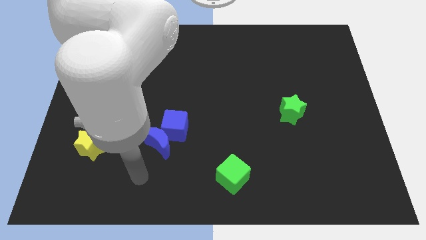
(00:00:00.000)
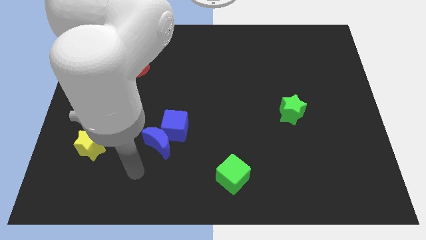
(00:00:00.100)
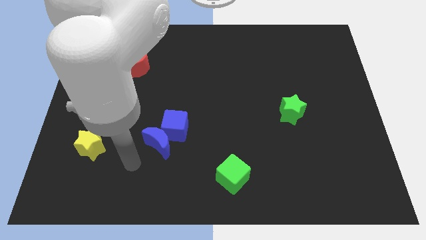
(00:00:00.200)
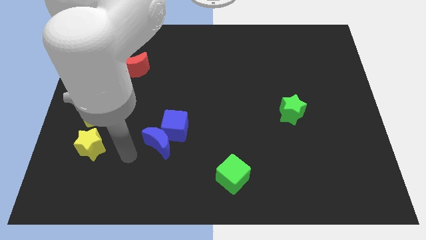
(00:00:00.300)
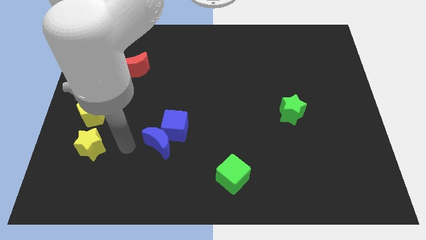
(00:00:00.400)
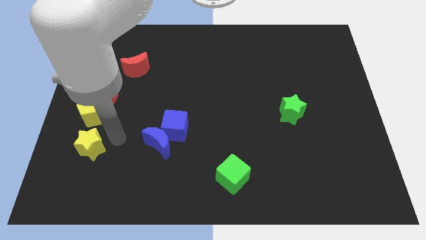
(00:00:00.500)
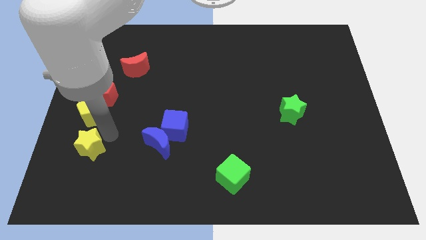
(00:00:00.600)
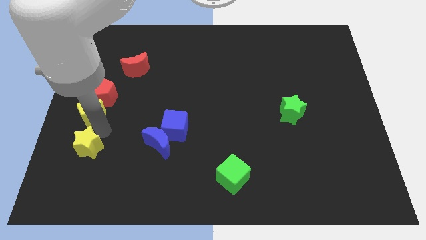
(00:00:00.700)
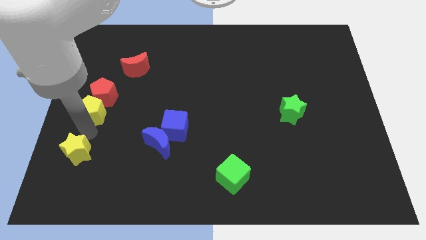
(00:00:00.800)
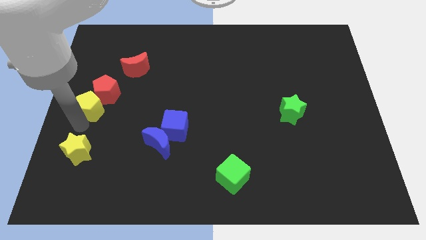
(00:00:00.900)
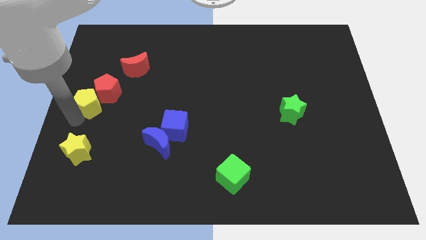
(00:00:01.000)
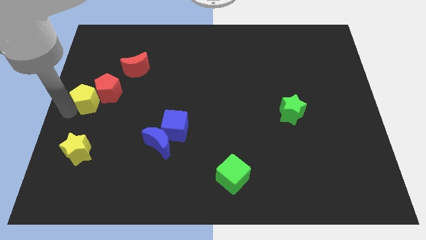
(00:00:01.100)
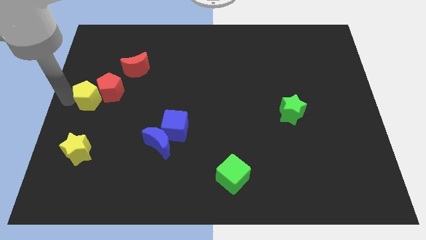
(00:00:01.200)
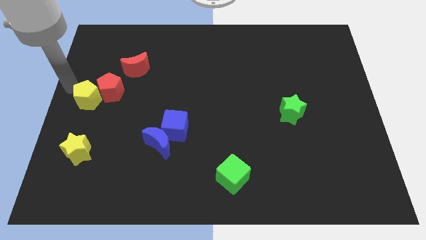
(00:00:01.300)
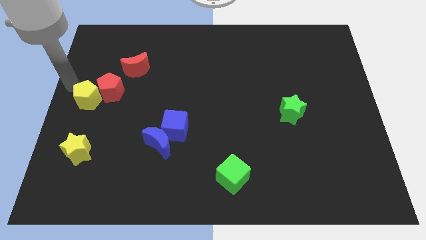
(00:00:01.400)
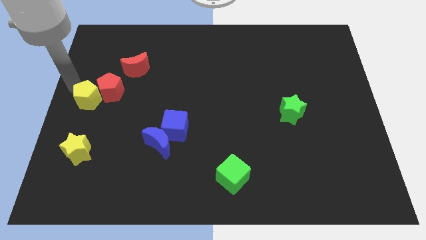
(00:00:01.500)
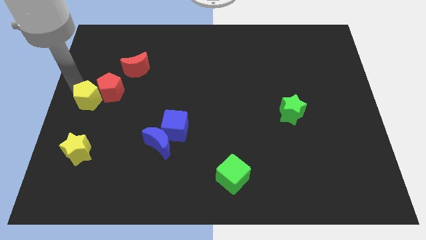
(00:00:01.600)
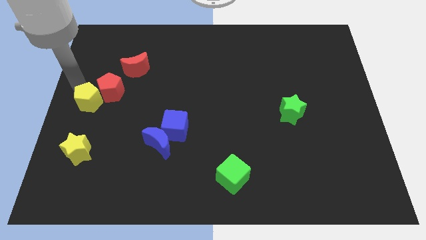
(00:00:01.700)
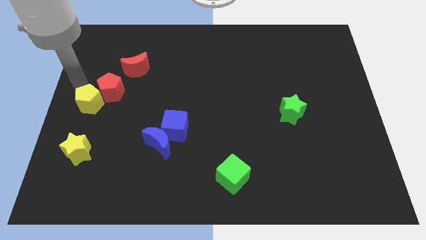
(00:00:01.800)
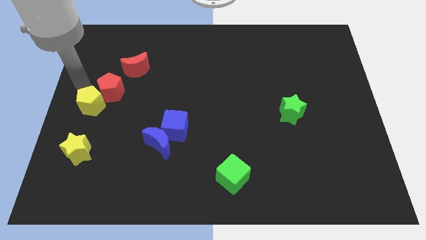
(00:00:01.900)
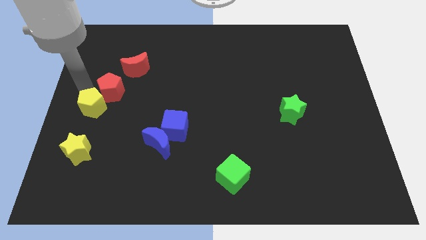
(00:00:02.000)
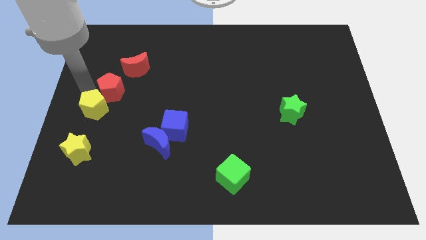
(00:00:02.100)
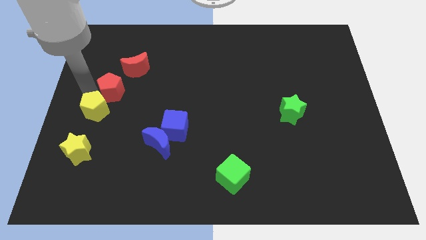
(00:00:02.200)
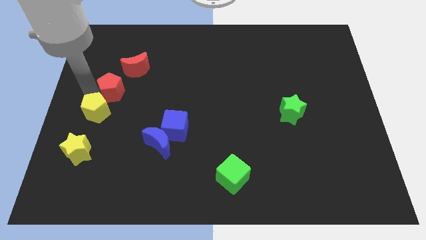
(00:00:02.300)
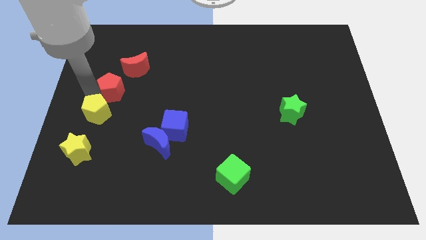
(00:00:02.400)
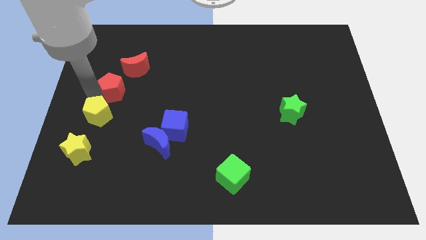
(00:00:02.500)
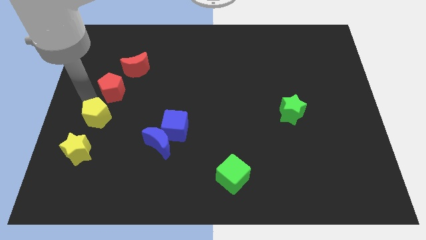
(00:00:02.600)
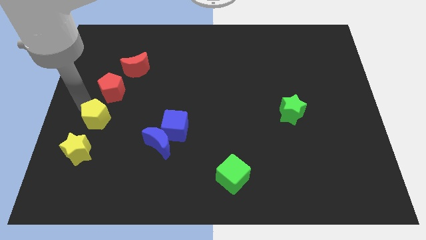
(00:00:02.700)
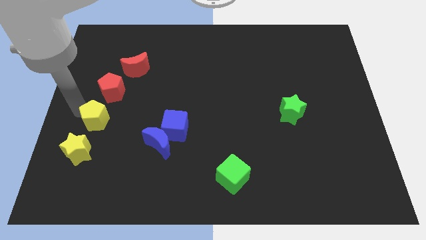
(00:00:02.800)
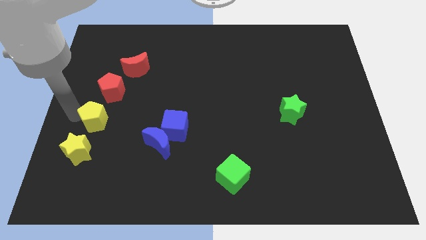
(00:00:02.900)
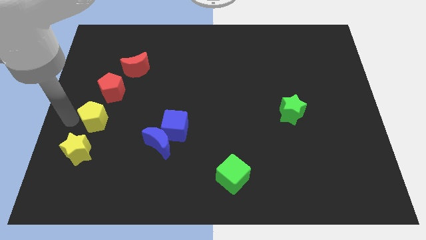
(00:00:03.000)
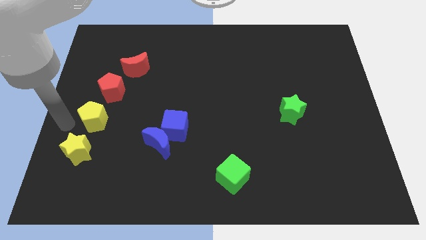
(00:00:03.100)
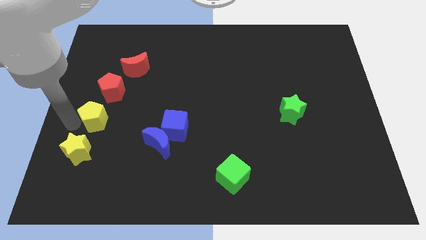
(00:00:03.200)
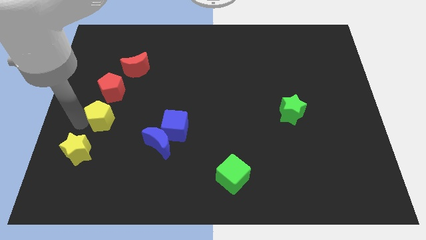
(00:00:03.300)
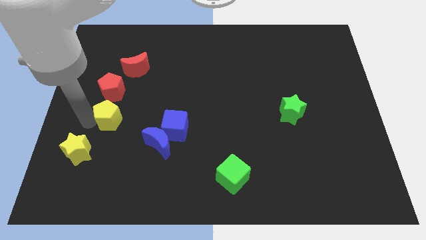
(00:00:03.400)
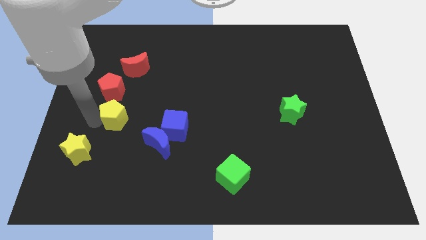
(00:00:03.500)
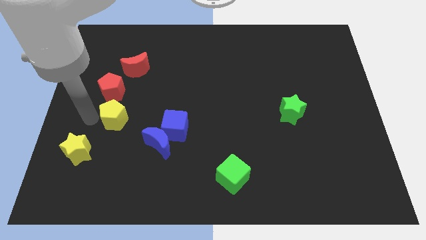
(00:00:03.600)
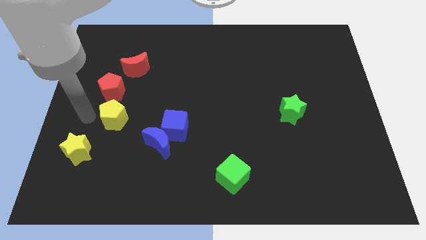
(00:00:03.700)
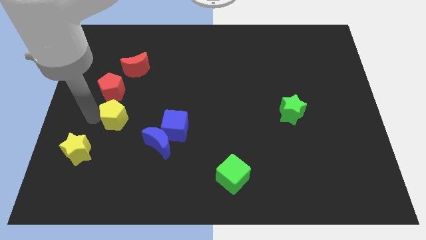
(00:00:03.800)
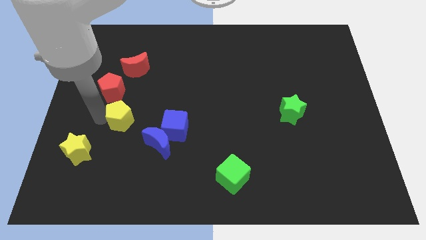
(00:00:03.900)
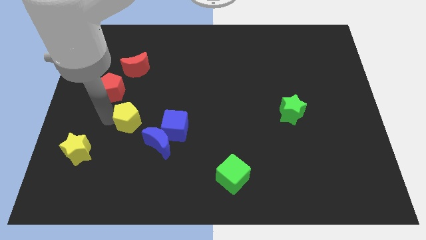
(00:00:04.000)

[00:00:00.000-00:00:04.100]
move the yellow pentagon right somewhat

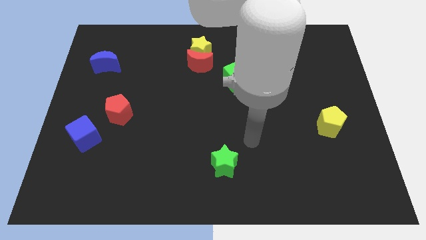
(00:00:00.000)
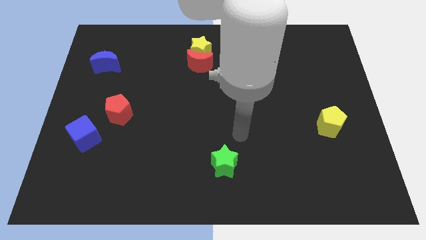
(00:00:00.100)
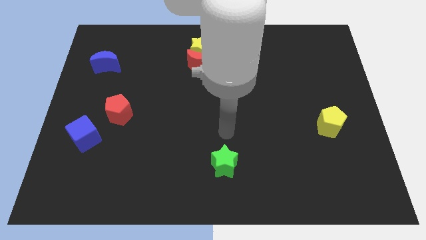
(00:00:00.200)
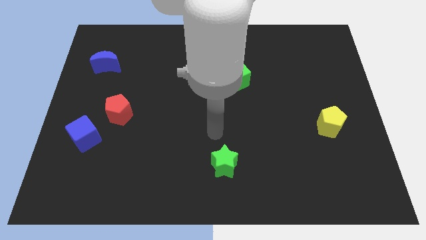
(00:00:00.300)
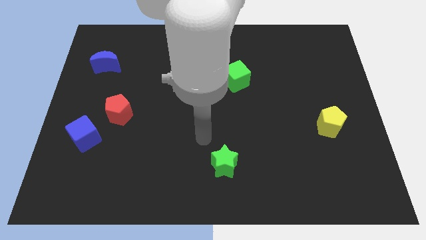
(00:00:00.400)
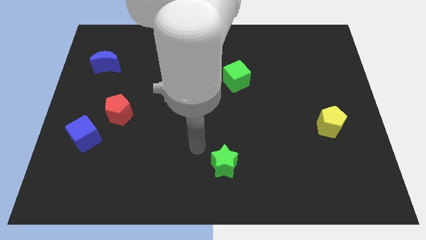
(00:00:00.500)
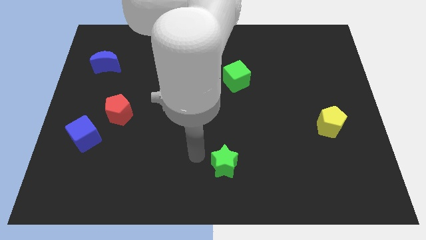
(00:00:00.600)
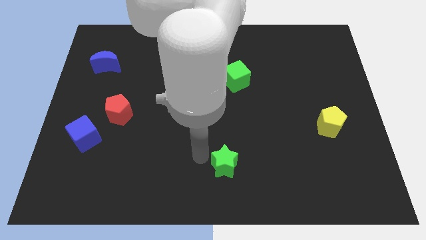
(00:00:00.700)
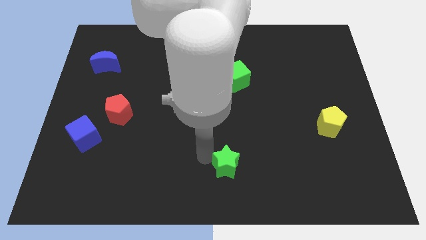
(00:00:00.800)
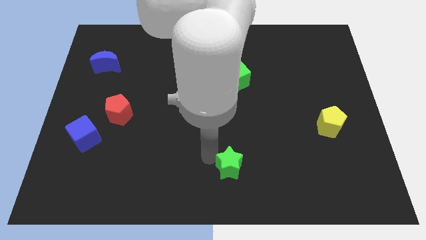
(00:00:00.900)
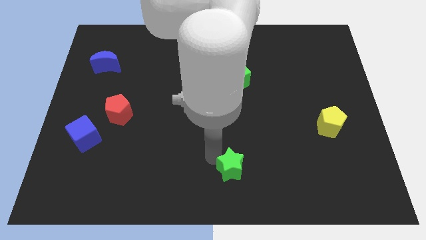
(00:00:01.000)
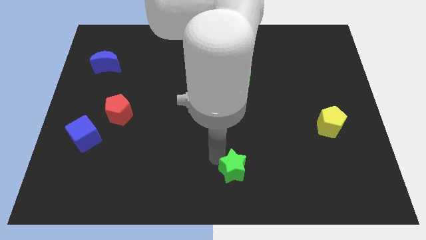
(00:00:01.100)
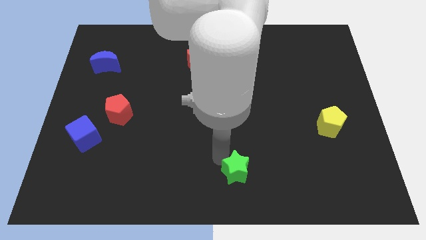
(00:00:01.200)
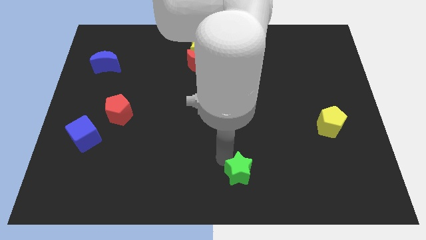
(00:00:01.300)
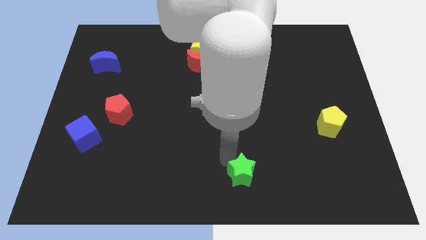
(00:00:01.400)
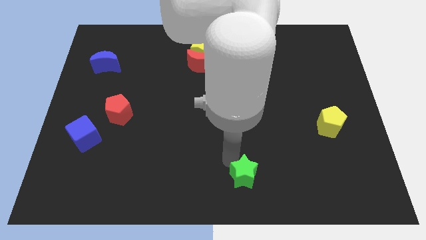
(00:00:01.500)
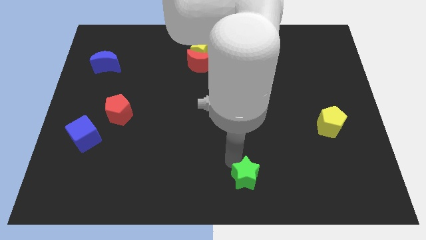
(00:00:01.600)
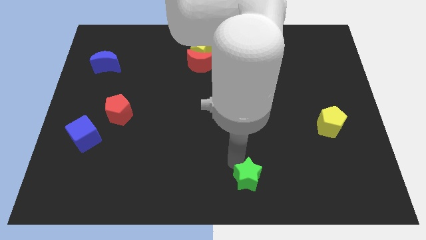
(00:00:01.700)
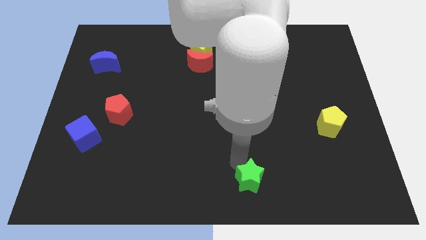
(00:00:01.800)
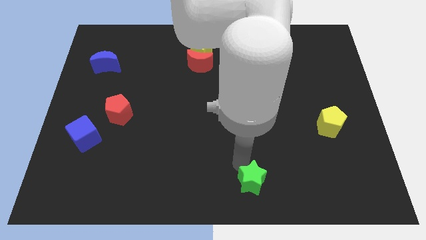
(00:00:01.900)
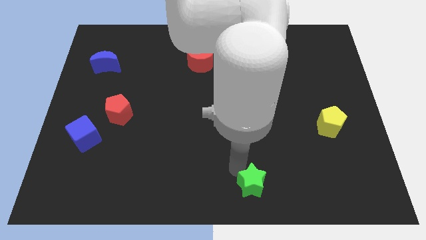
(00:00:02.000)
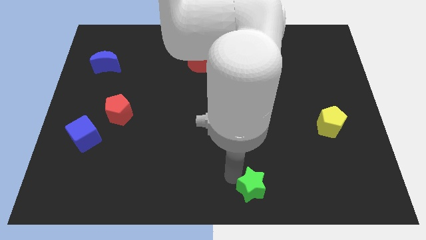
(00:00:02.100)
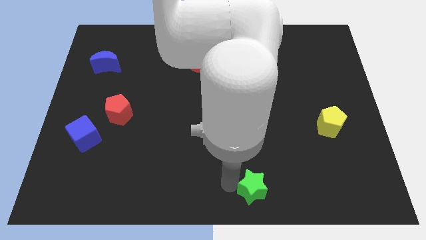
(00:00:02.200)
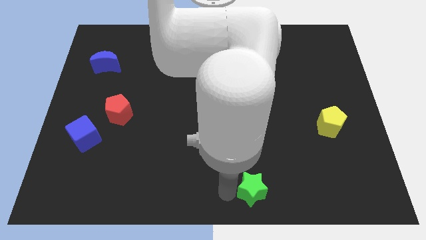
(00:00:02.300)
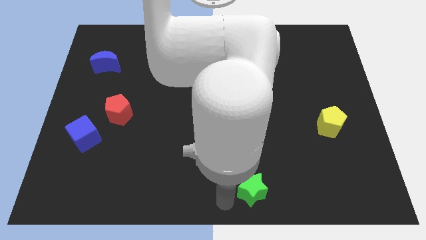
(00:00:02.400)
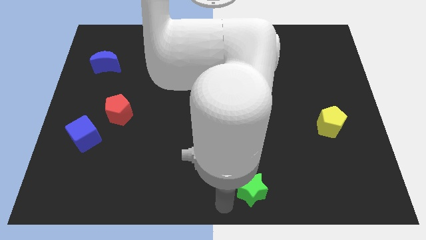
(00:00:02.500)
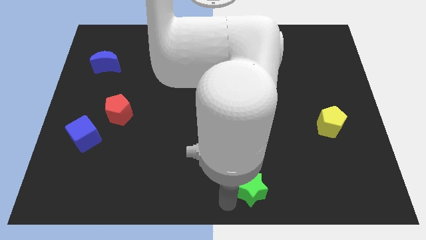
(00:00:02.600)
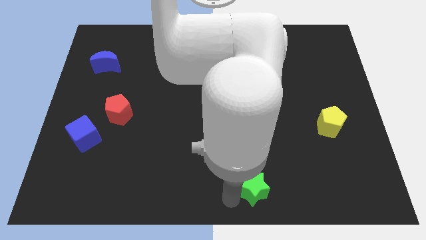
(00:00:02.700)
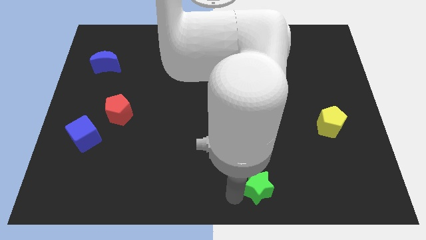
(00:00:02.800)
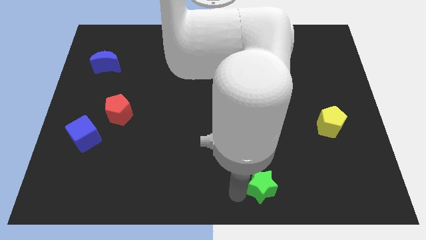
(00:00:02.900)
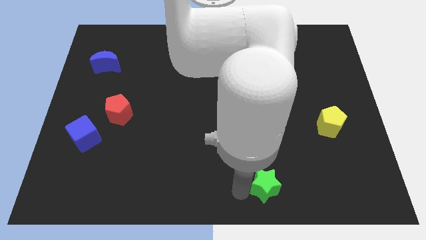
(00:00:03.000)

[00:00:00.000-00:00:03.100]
slide the green star a little to the right

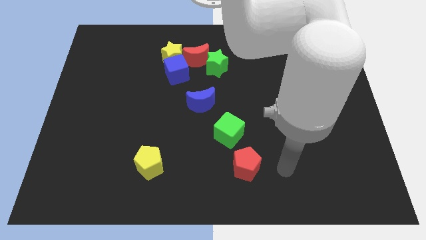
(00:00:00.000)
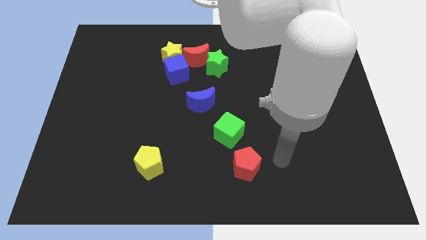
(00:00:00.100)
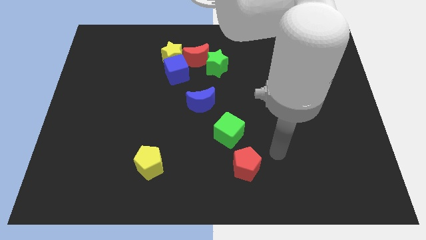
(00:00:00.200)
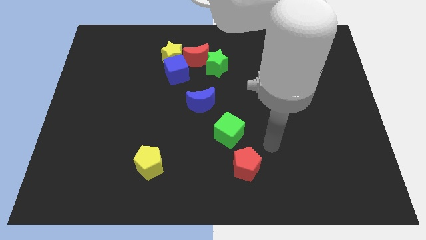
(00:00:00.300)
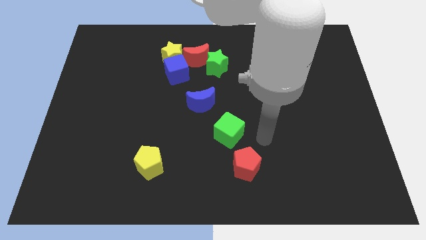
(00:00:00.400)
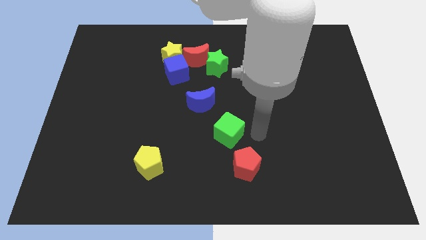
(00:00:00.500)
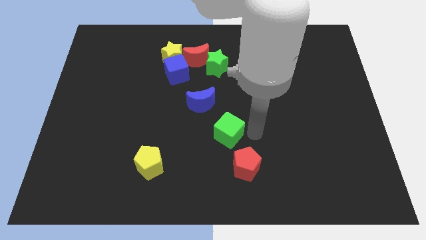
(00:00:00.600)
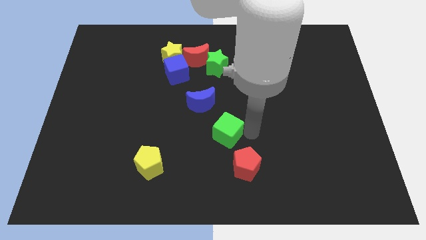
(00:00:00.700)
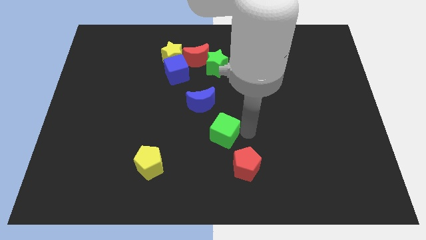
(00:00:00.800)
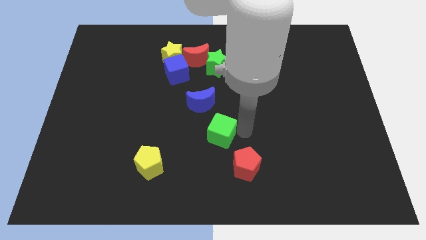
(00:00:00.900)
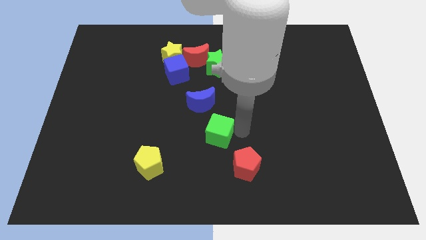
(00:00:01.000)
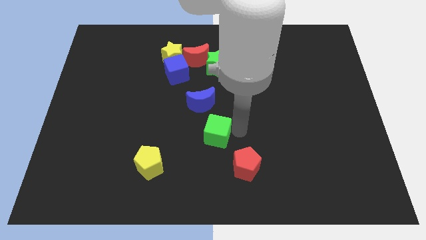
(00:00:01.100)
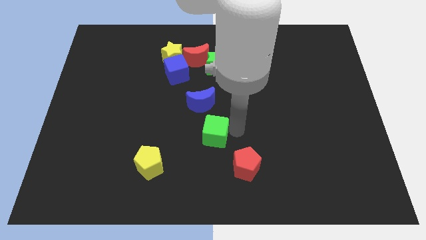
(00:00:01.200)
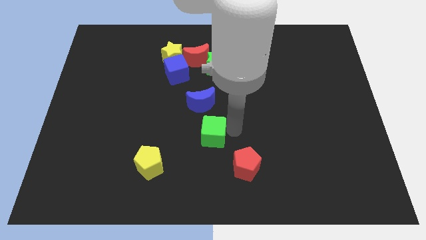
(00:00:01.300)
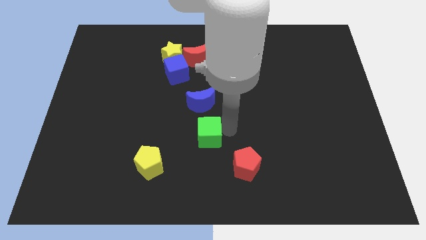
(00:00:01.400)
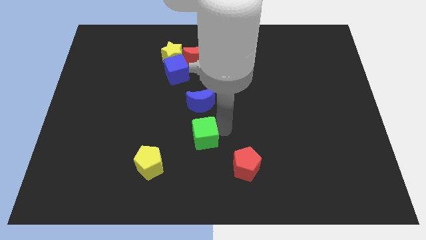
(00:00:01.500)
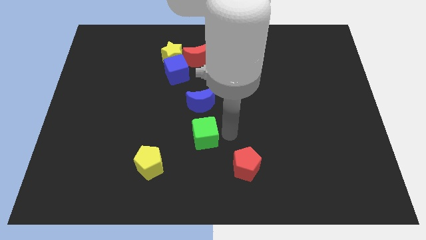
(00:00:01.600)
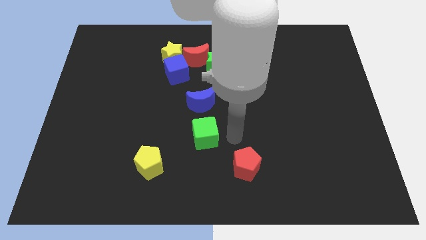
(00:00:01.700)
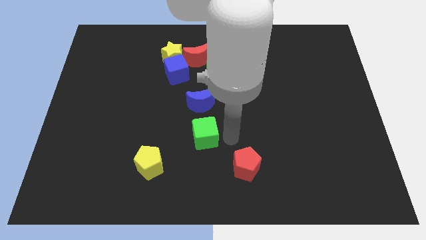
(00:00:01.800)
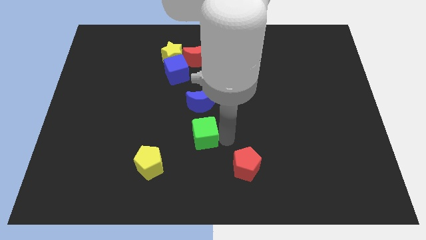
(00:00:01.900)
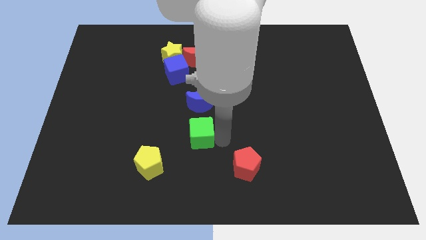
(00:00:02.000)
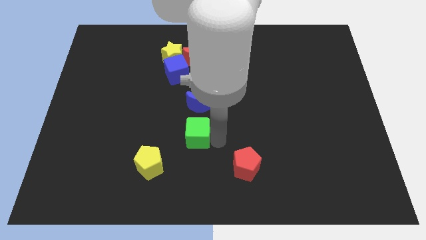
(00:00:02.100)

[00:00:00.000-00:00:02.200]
push the green cube somewhat to the left
